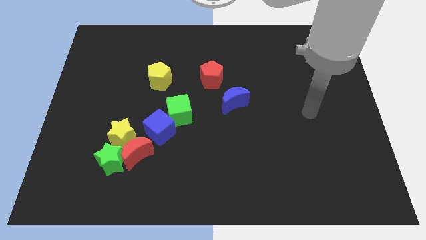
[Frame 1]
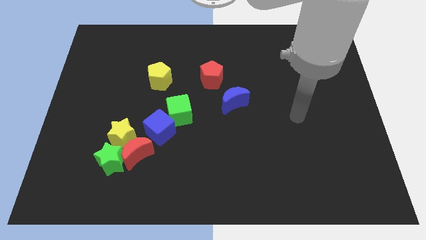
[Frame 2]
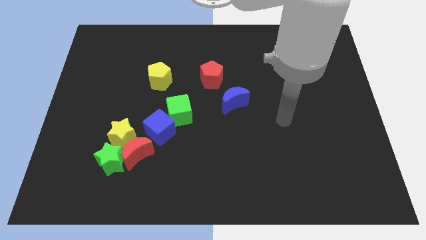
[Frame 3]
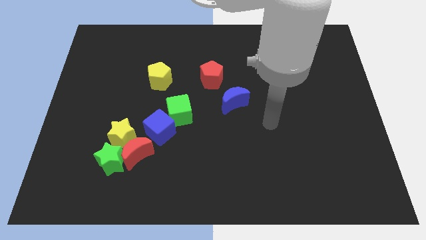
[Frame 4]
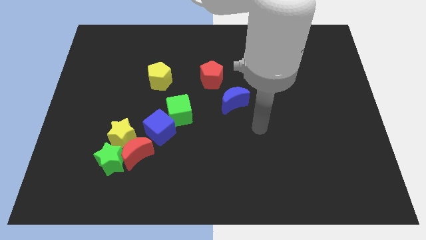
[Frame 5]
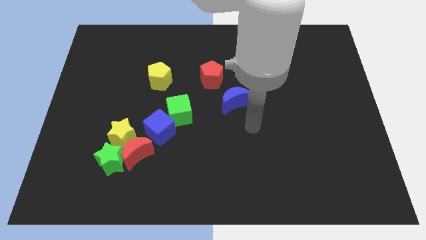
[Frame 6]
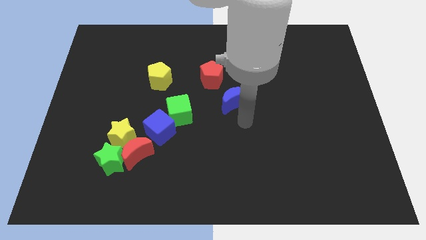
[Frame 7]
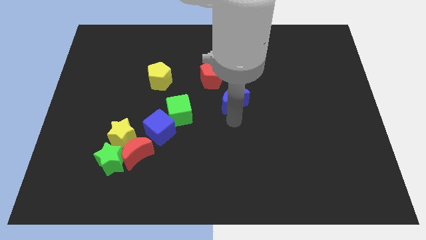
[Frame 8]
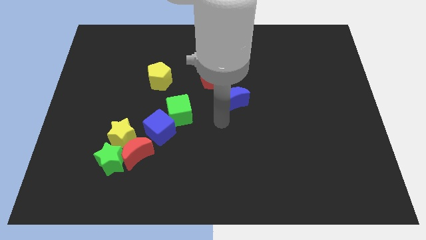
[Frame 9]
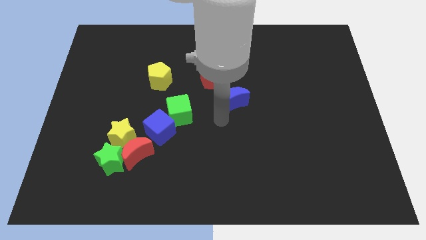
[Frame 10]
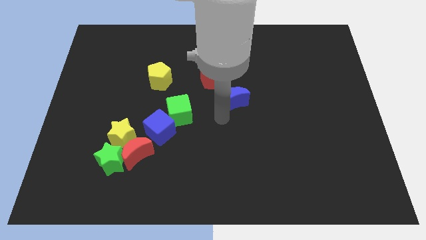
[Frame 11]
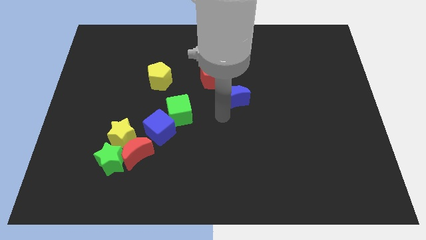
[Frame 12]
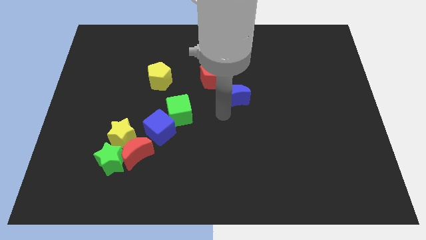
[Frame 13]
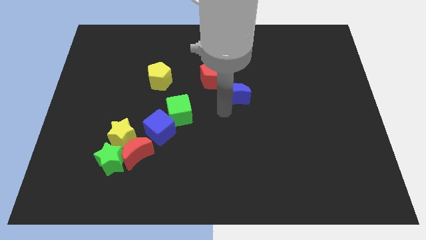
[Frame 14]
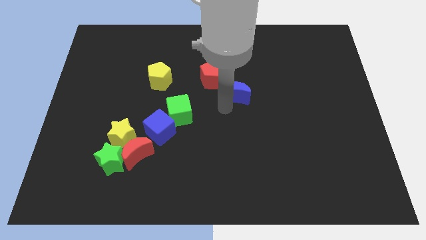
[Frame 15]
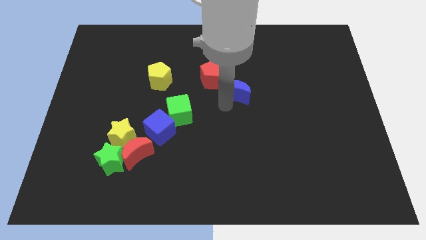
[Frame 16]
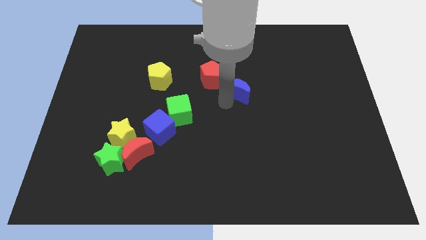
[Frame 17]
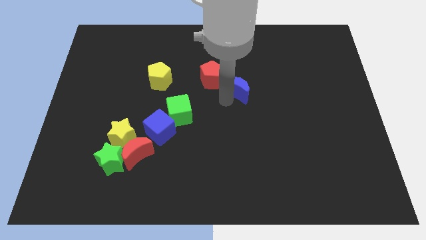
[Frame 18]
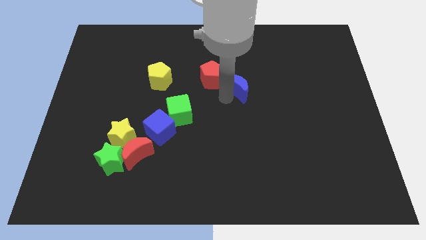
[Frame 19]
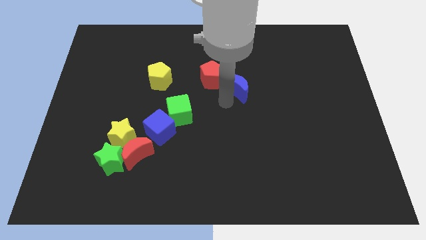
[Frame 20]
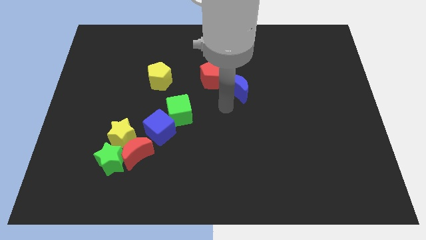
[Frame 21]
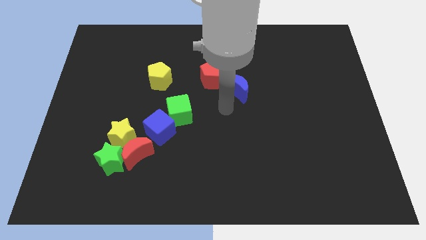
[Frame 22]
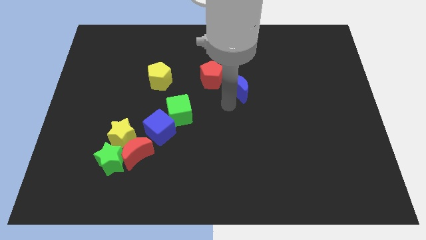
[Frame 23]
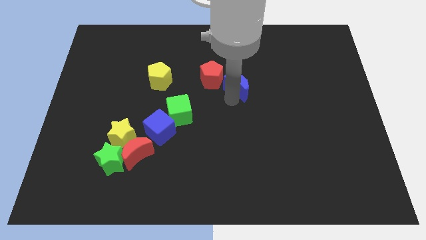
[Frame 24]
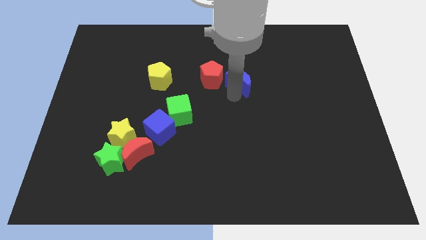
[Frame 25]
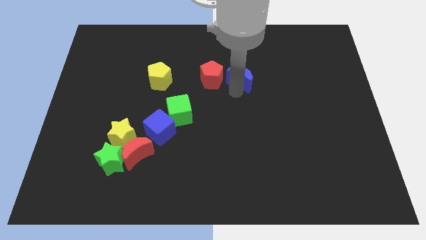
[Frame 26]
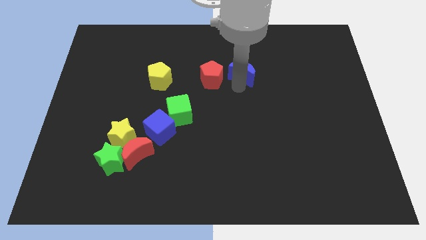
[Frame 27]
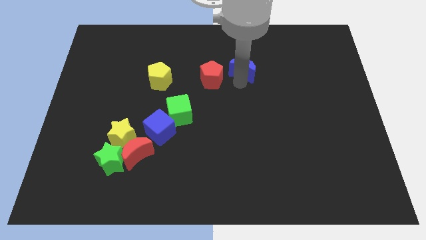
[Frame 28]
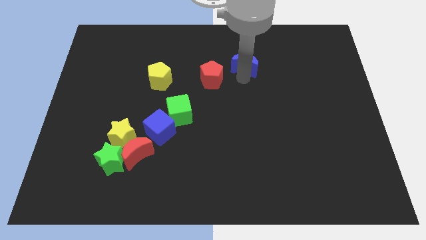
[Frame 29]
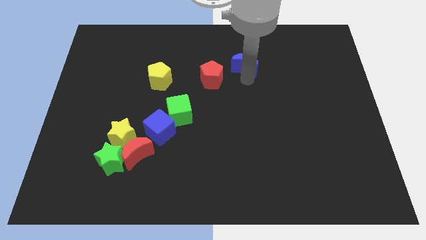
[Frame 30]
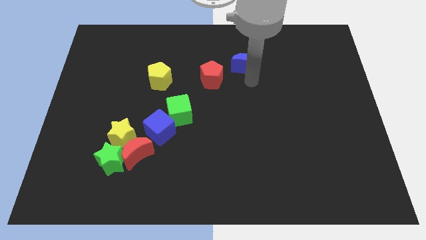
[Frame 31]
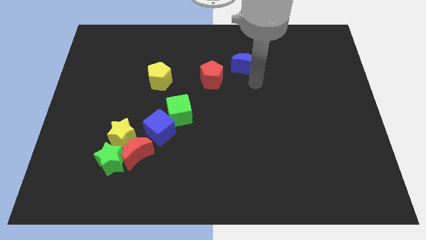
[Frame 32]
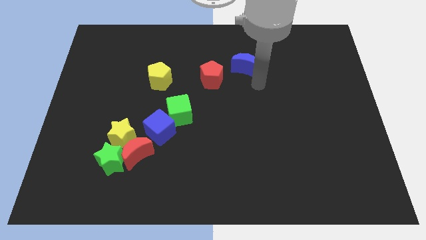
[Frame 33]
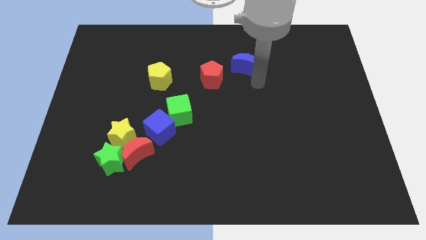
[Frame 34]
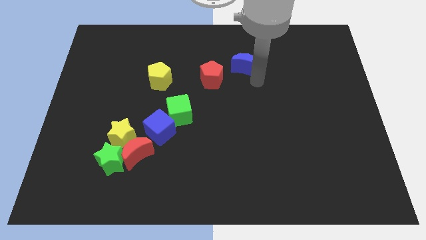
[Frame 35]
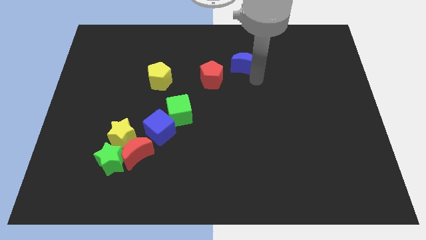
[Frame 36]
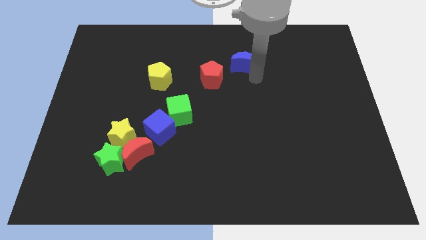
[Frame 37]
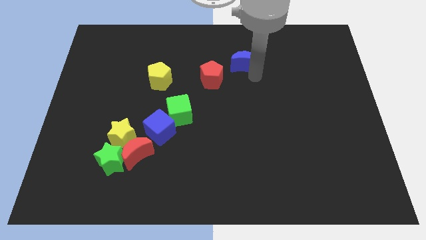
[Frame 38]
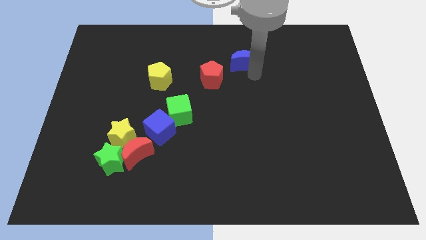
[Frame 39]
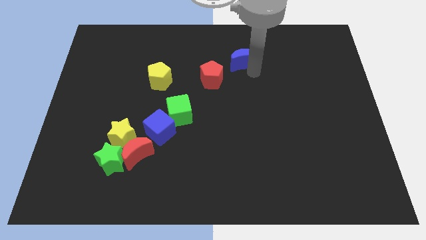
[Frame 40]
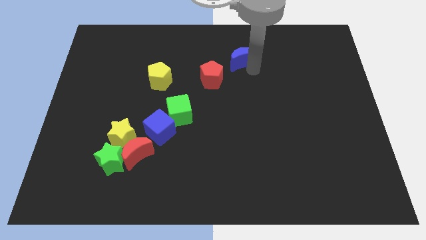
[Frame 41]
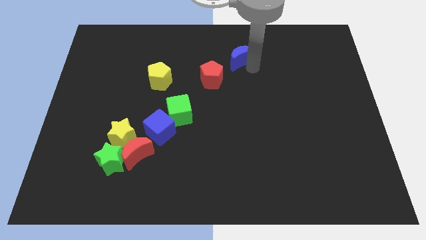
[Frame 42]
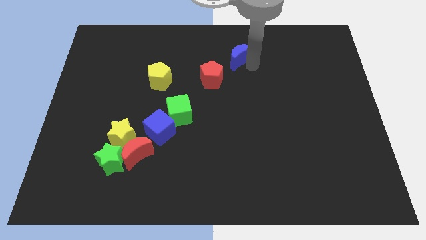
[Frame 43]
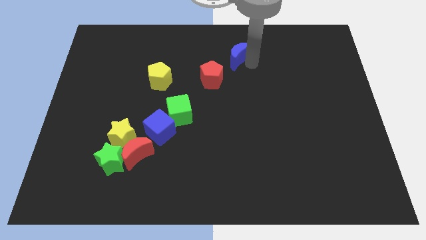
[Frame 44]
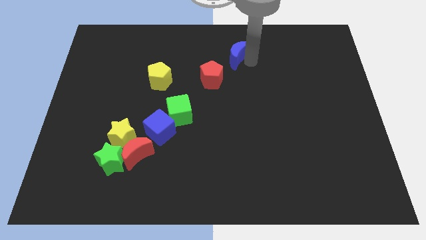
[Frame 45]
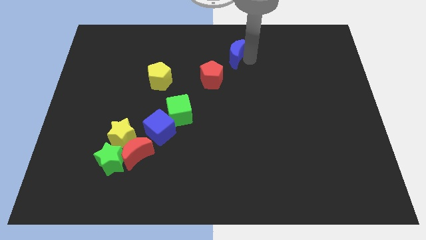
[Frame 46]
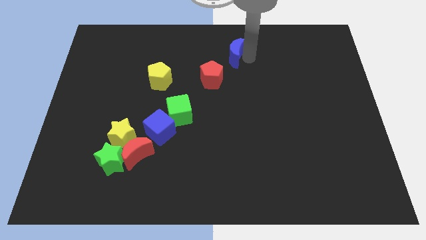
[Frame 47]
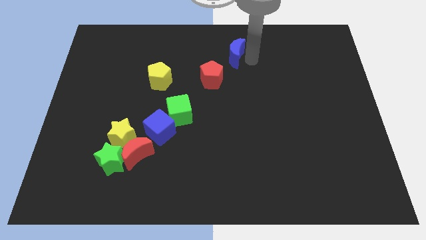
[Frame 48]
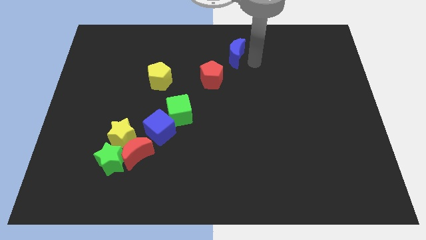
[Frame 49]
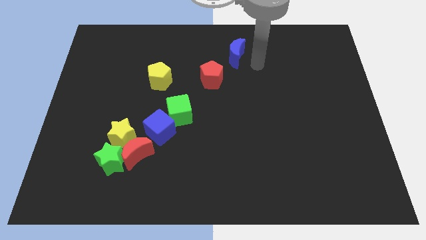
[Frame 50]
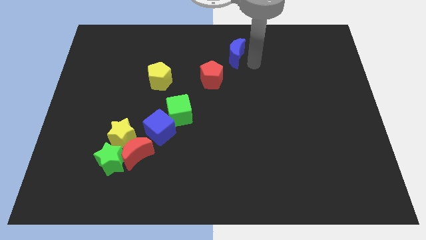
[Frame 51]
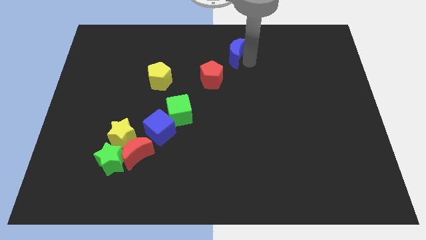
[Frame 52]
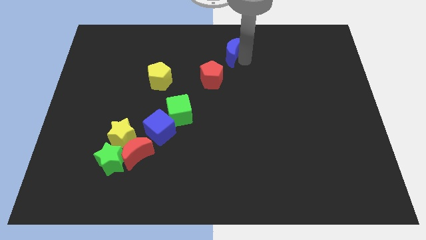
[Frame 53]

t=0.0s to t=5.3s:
push the blue moon to the top

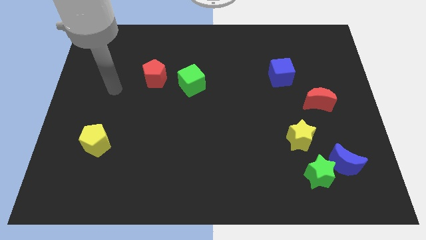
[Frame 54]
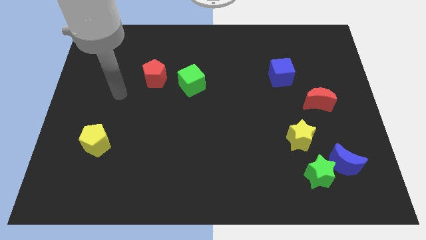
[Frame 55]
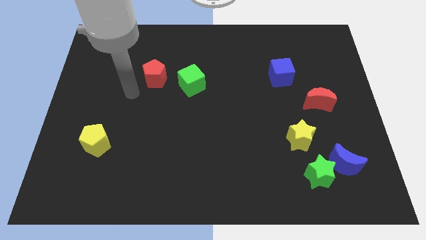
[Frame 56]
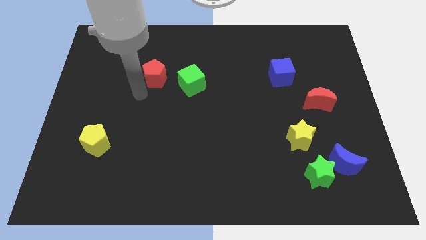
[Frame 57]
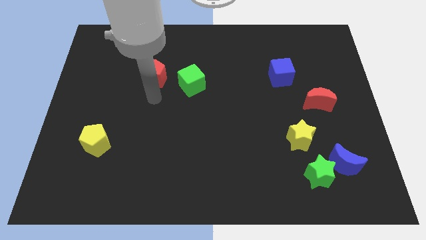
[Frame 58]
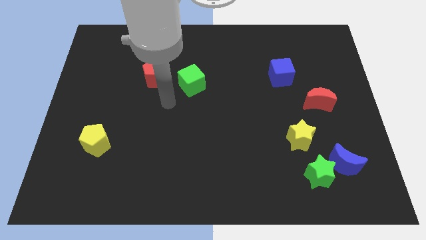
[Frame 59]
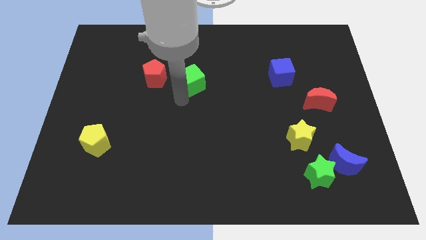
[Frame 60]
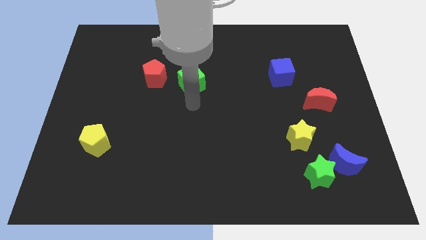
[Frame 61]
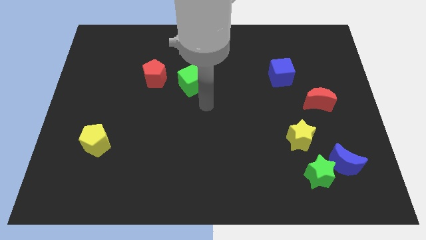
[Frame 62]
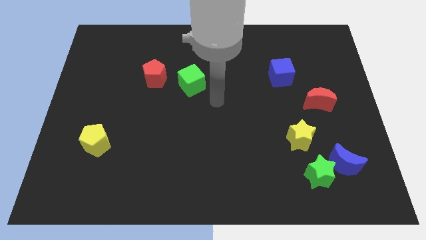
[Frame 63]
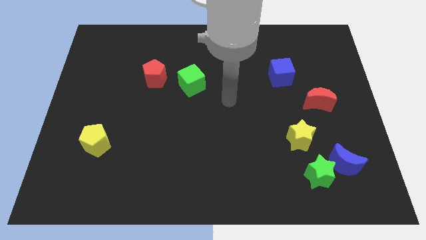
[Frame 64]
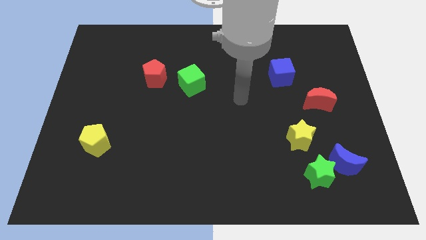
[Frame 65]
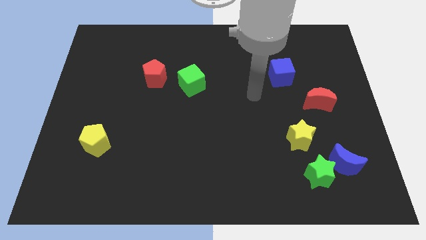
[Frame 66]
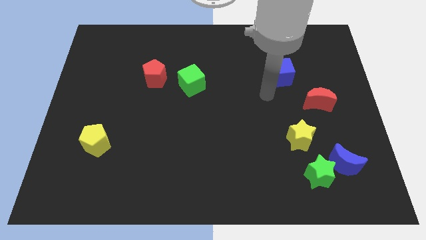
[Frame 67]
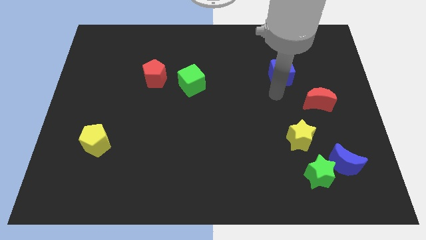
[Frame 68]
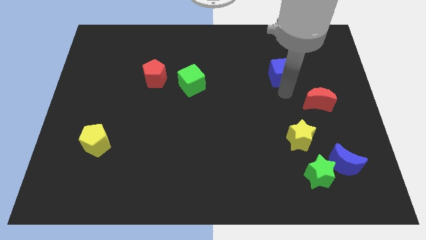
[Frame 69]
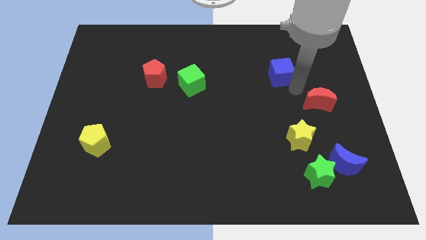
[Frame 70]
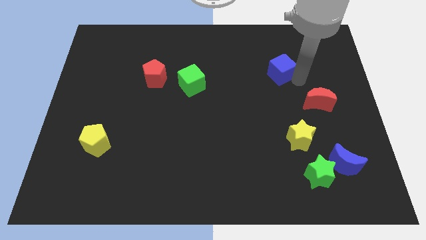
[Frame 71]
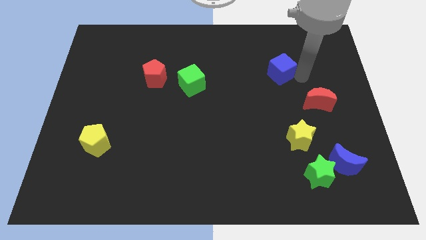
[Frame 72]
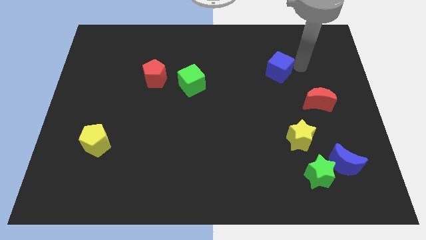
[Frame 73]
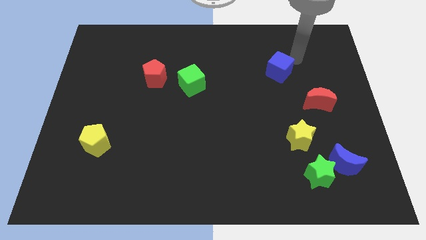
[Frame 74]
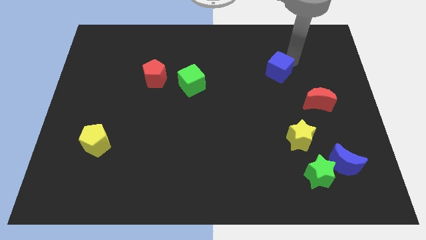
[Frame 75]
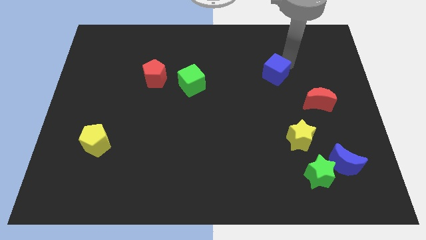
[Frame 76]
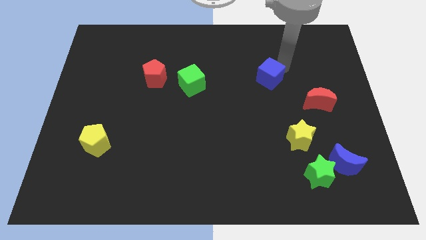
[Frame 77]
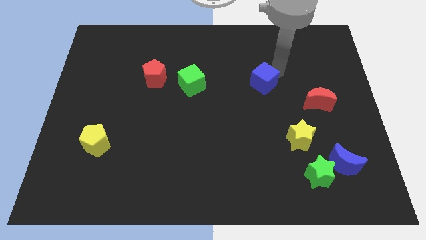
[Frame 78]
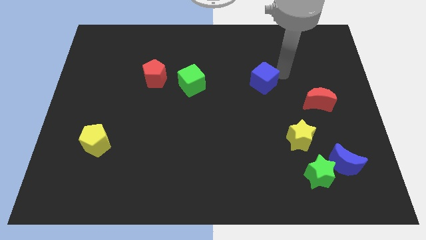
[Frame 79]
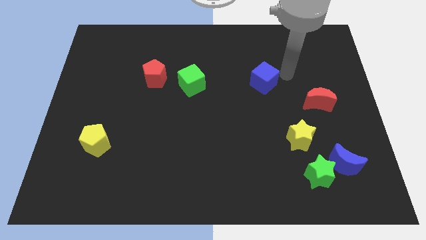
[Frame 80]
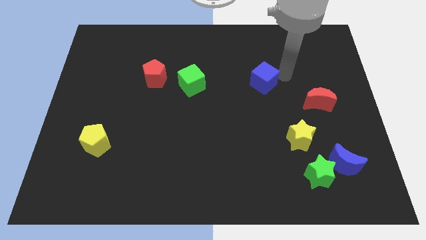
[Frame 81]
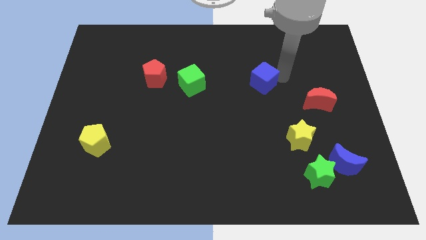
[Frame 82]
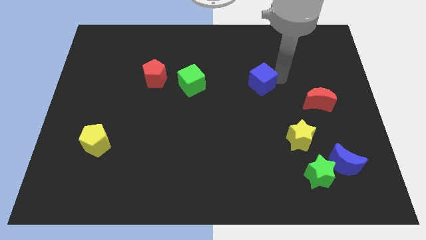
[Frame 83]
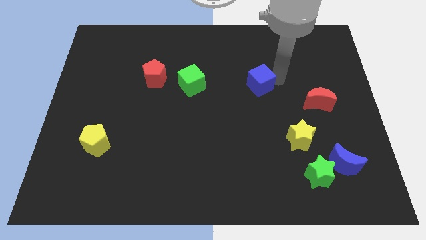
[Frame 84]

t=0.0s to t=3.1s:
slide the blue cube to the middle
